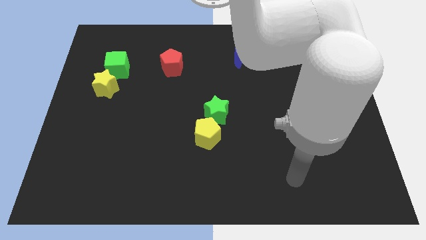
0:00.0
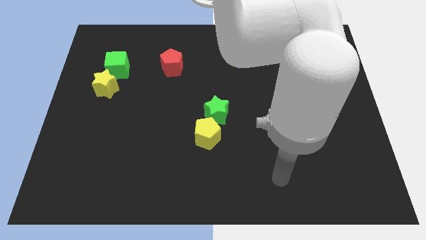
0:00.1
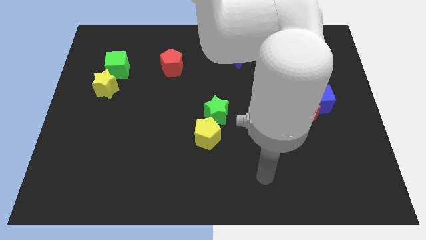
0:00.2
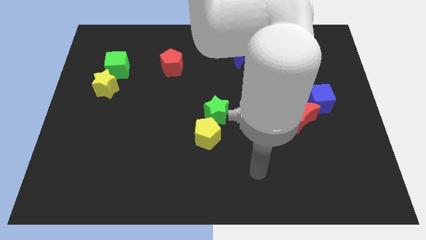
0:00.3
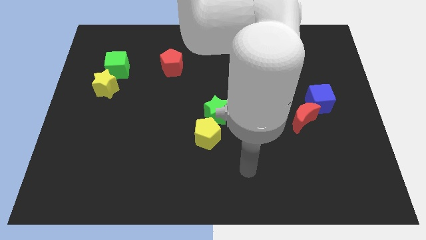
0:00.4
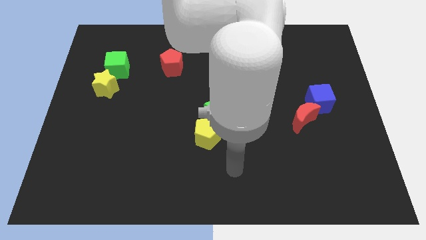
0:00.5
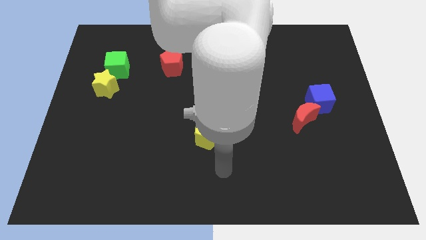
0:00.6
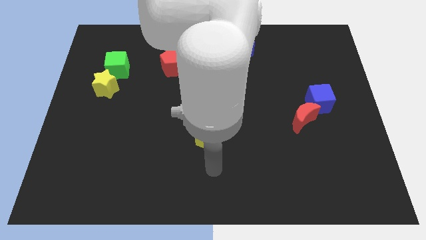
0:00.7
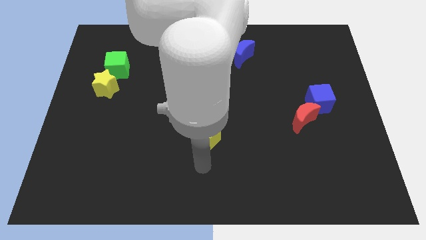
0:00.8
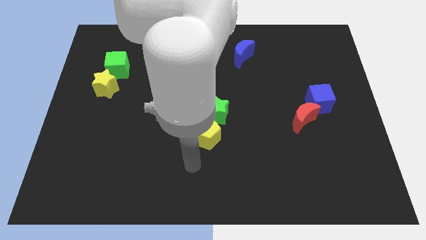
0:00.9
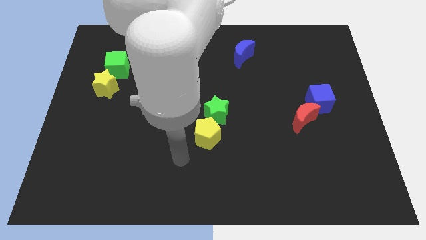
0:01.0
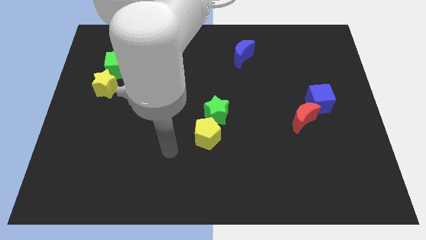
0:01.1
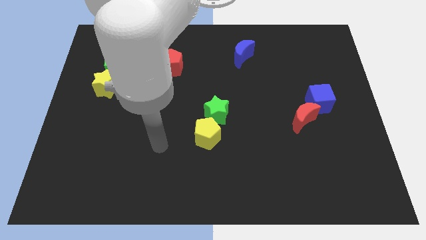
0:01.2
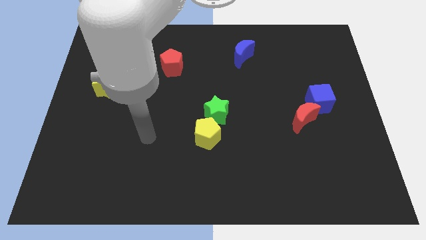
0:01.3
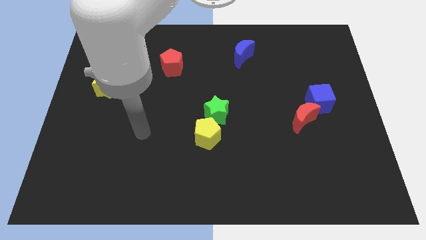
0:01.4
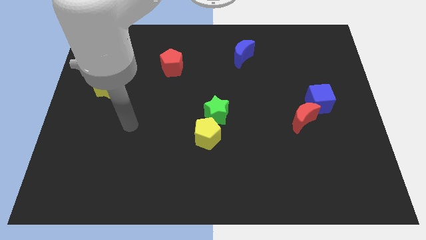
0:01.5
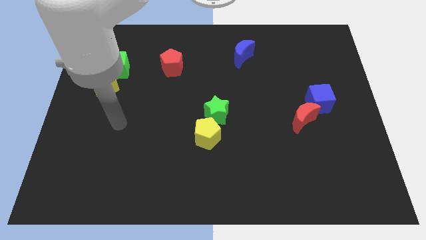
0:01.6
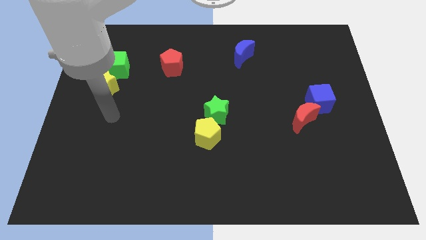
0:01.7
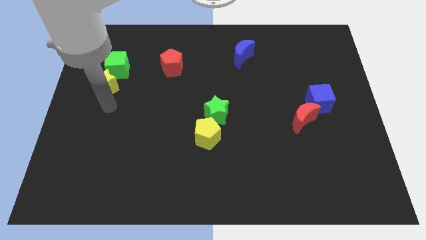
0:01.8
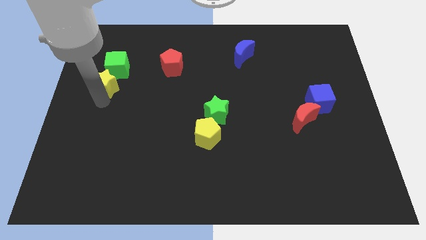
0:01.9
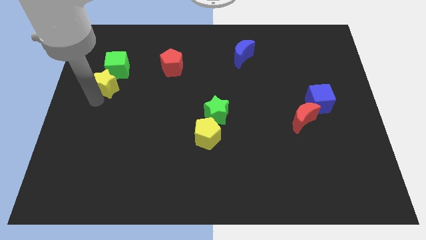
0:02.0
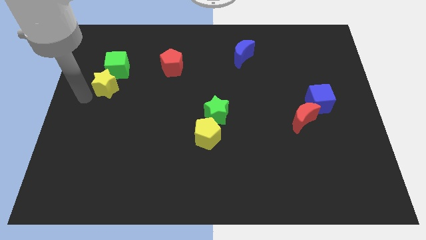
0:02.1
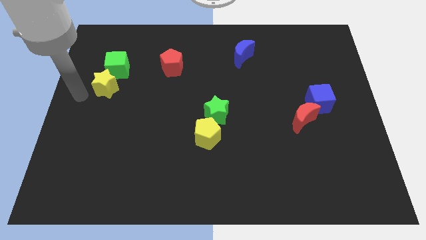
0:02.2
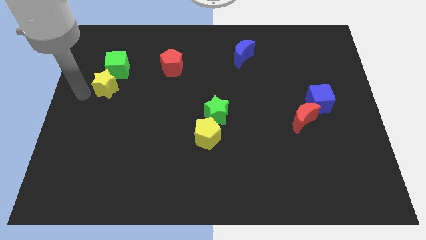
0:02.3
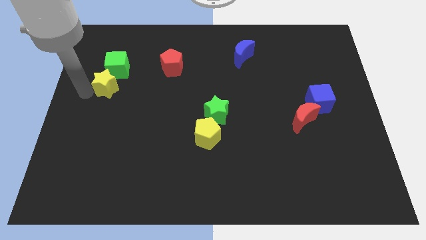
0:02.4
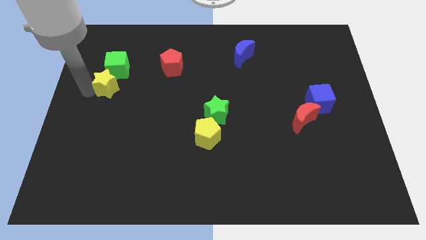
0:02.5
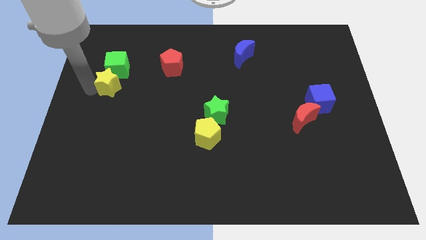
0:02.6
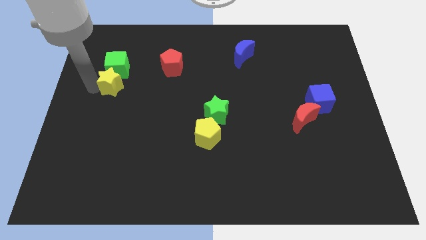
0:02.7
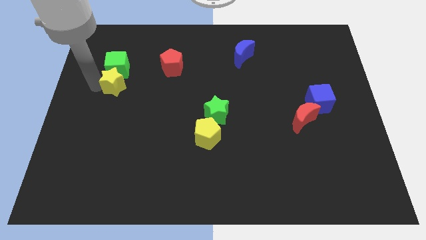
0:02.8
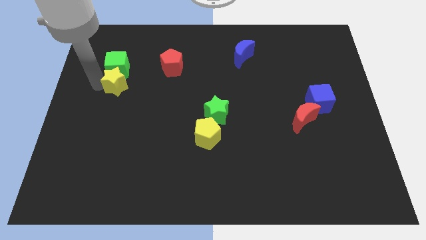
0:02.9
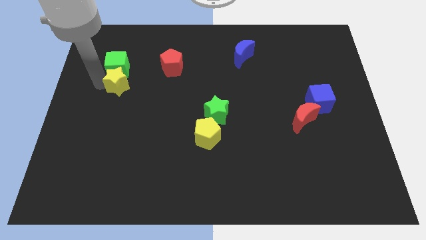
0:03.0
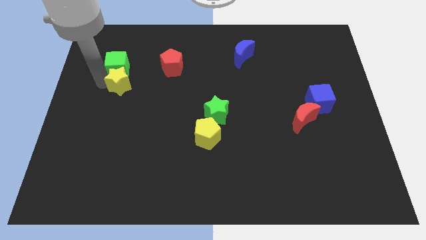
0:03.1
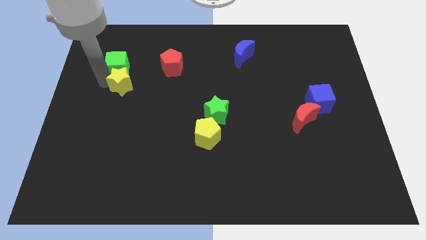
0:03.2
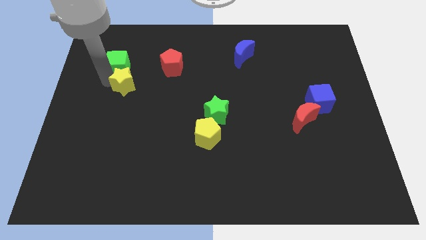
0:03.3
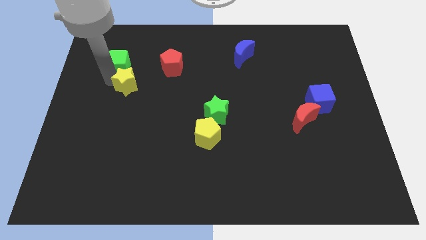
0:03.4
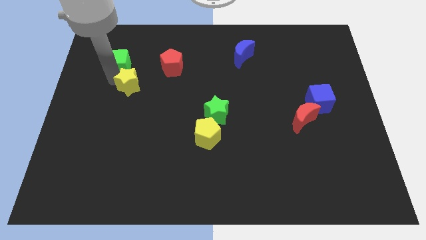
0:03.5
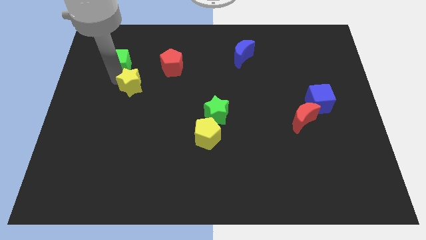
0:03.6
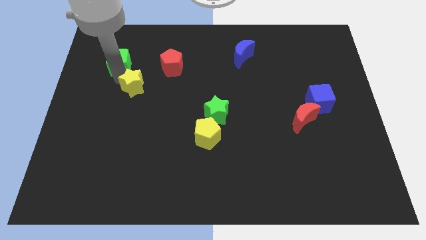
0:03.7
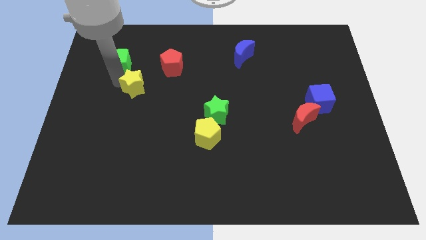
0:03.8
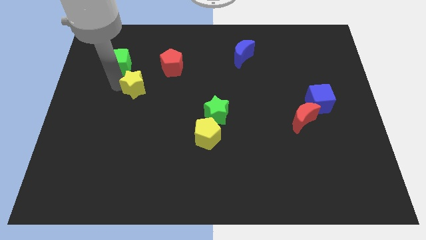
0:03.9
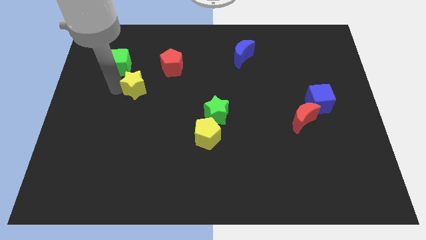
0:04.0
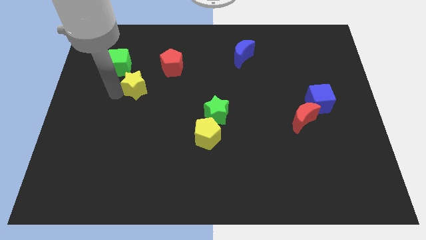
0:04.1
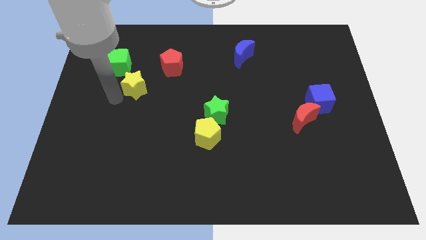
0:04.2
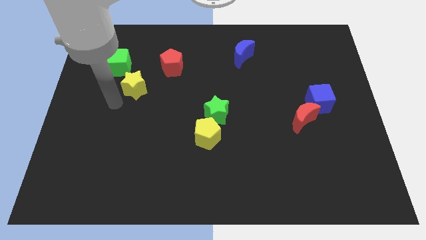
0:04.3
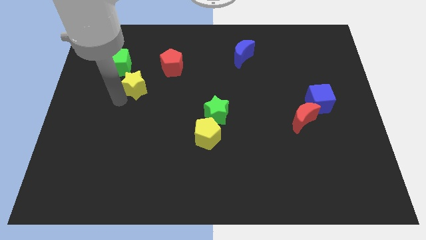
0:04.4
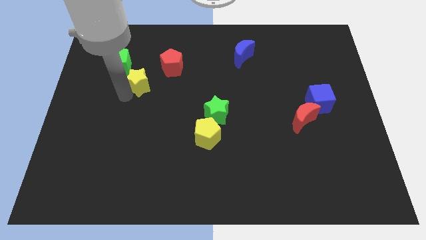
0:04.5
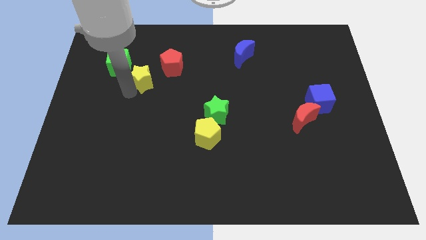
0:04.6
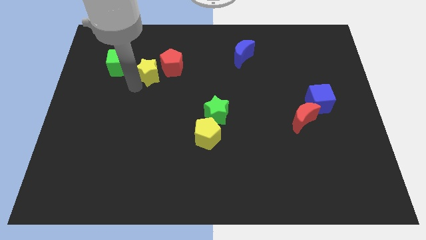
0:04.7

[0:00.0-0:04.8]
put the yellow star to the red pentagon

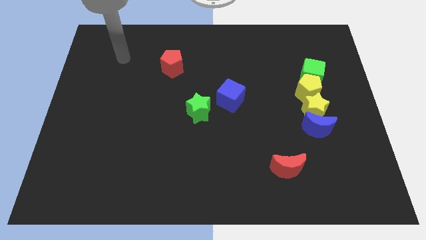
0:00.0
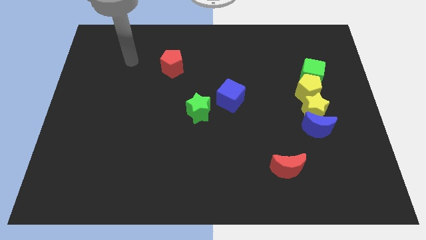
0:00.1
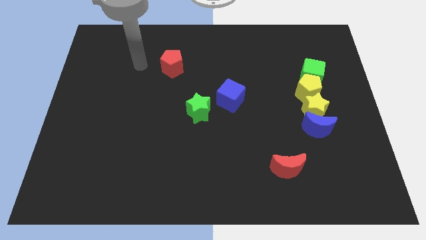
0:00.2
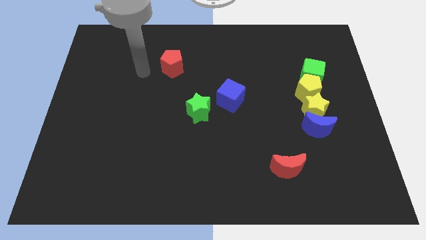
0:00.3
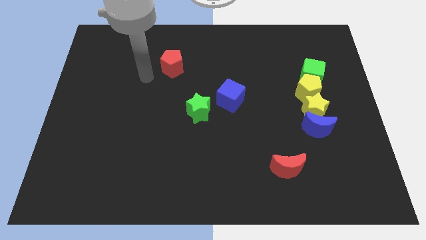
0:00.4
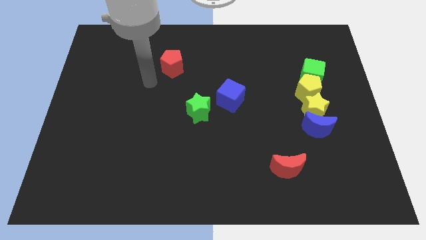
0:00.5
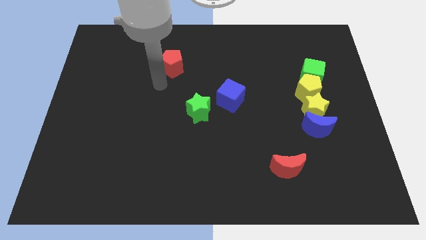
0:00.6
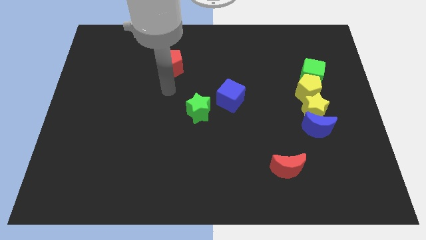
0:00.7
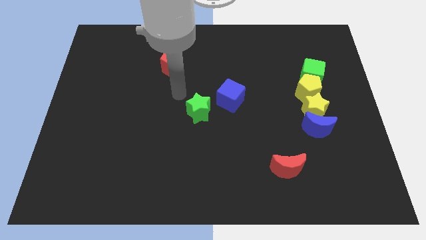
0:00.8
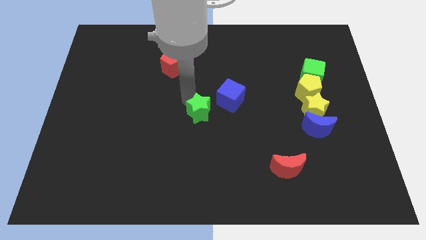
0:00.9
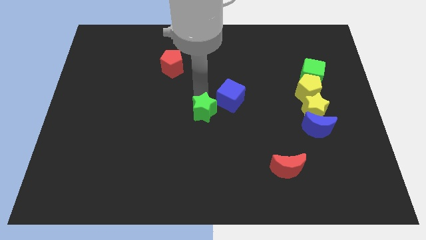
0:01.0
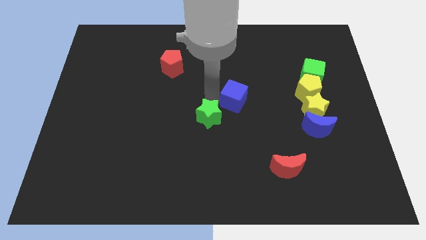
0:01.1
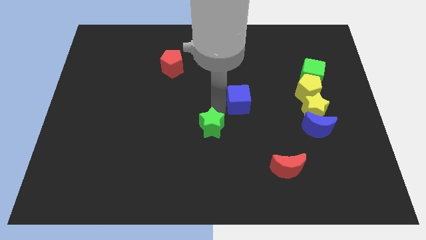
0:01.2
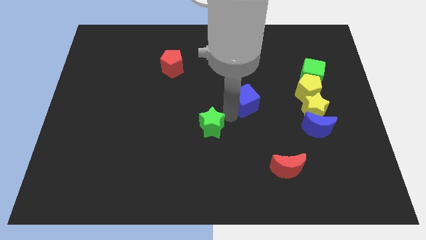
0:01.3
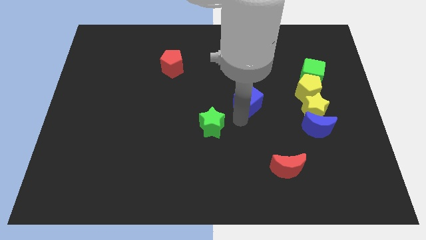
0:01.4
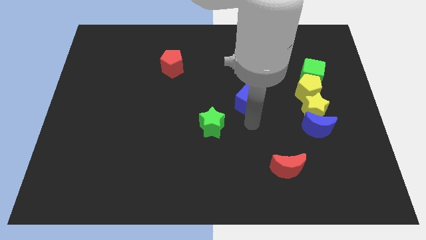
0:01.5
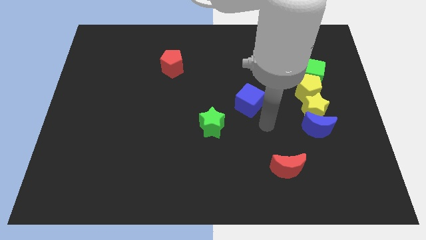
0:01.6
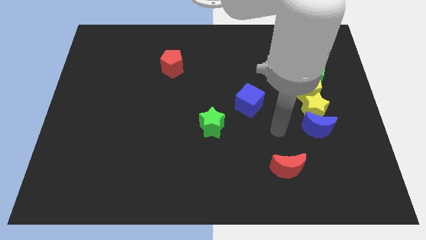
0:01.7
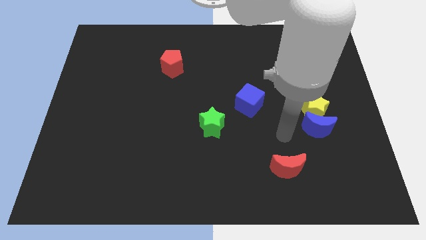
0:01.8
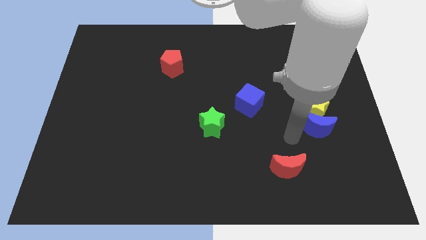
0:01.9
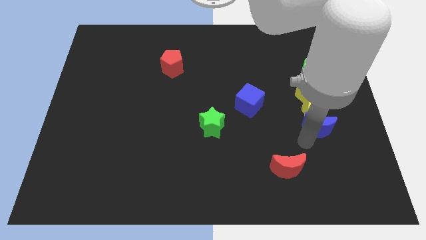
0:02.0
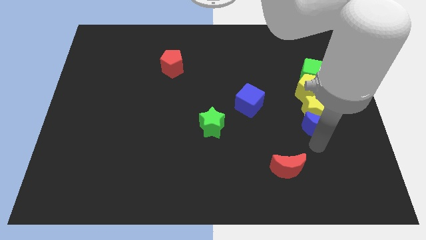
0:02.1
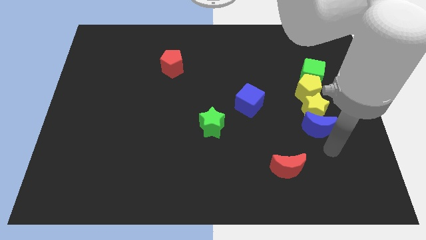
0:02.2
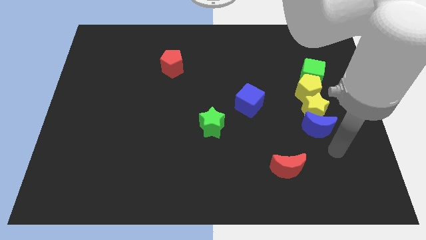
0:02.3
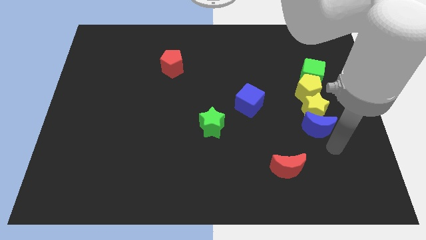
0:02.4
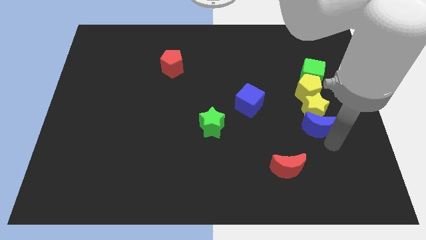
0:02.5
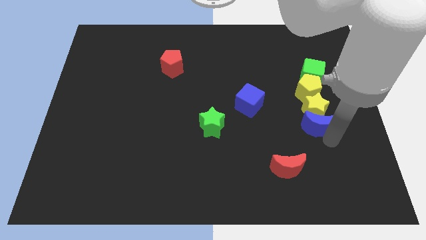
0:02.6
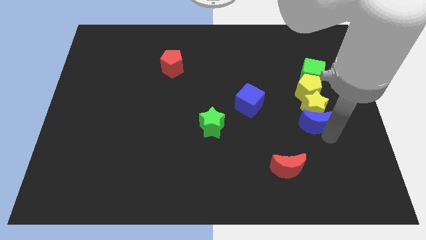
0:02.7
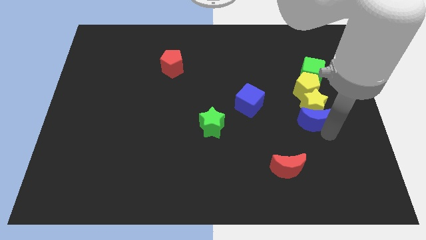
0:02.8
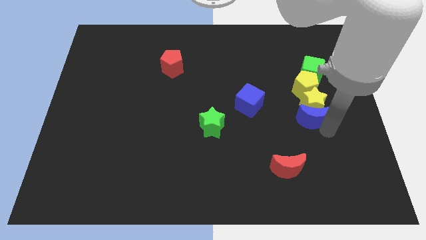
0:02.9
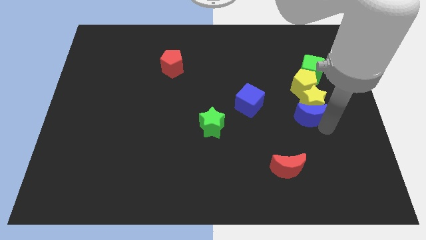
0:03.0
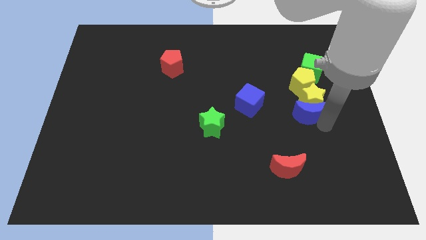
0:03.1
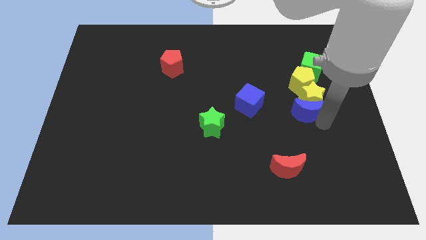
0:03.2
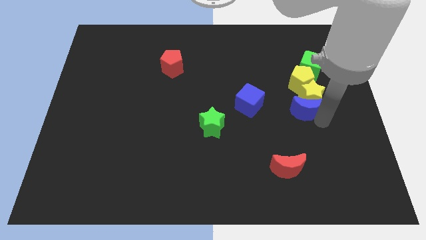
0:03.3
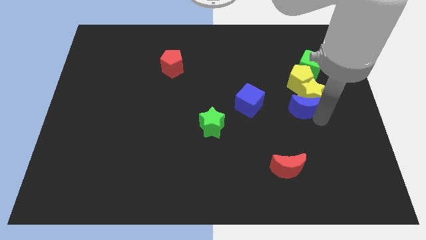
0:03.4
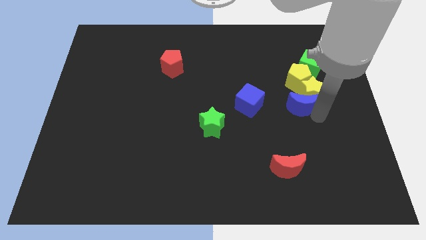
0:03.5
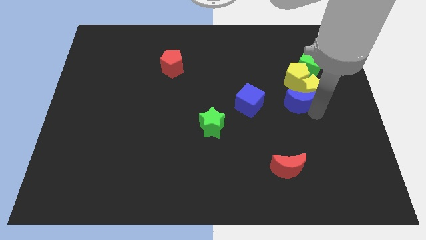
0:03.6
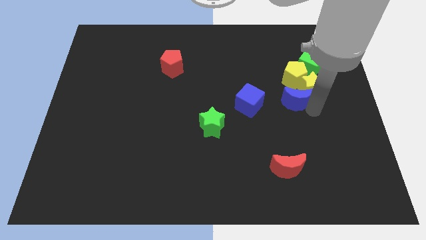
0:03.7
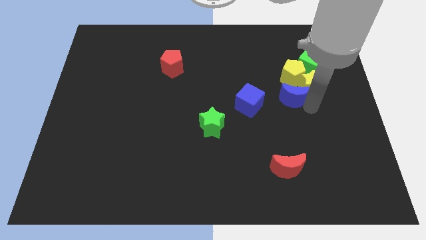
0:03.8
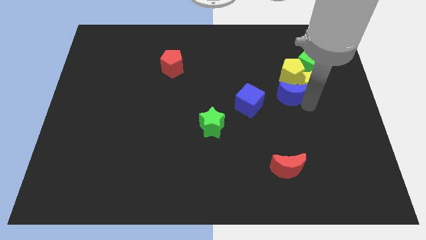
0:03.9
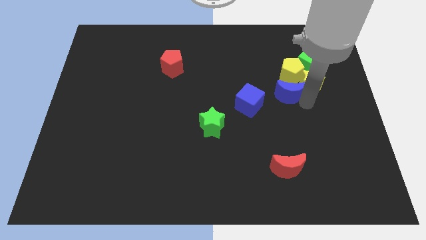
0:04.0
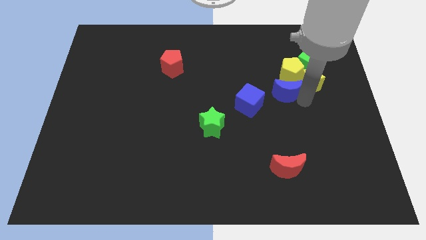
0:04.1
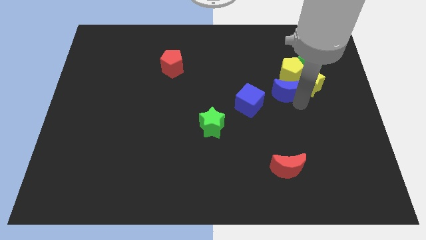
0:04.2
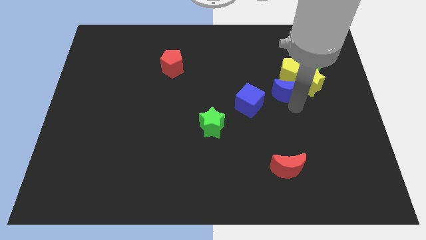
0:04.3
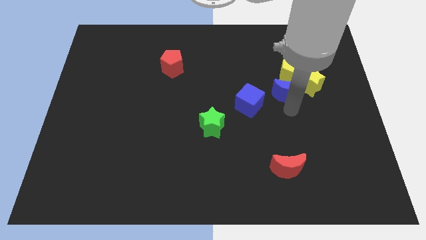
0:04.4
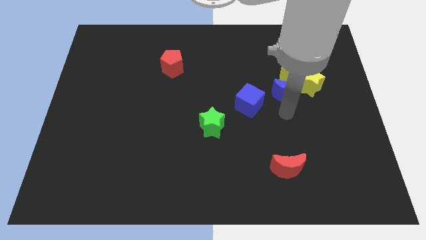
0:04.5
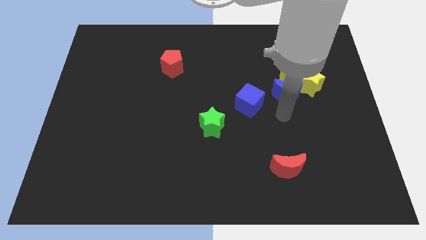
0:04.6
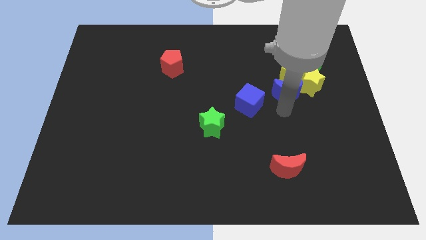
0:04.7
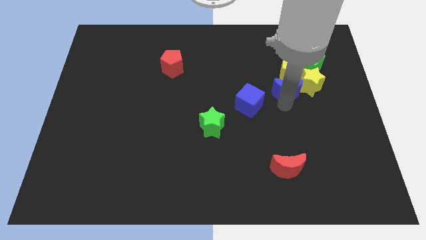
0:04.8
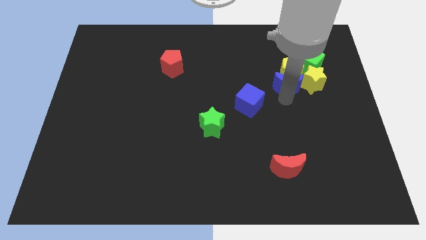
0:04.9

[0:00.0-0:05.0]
push the blue moon close to the yellow pentagon
